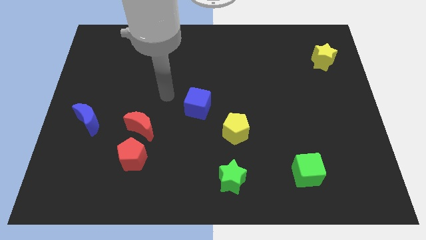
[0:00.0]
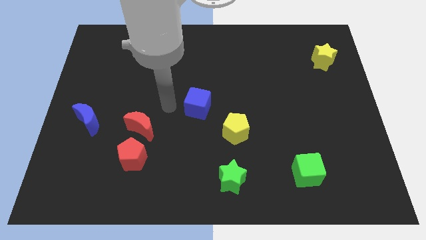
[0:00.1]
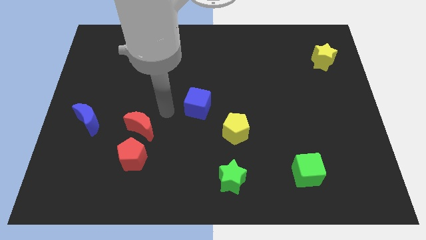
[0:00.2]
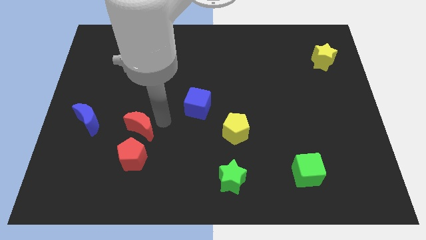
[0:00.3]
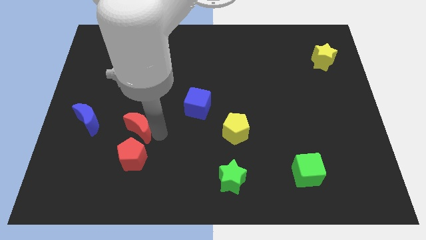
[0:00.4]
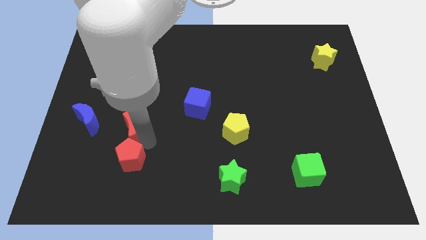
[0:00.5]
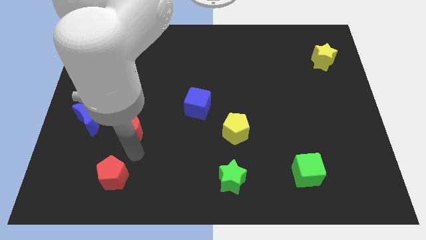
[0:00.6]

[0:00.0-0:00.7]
separate the red moon from the red pentagon

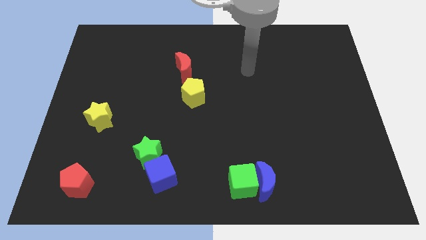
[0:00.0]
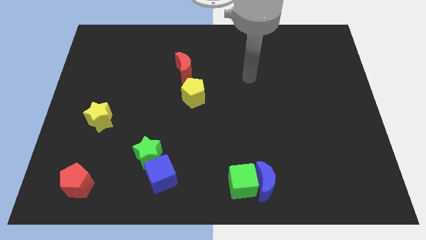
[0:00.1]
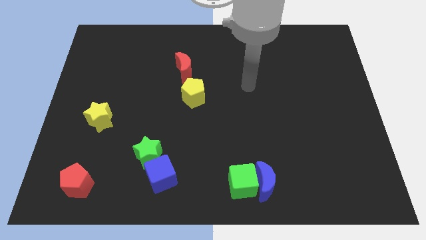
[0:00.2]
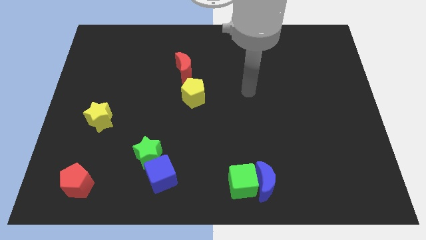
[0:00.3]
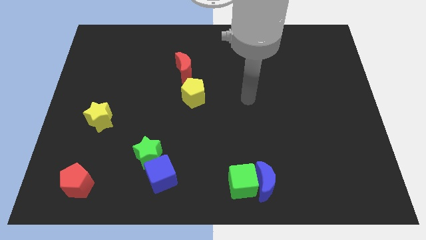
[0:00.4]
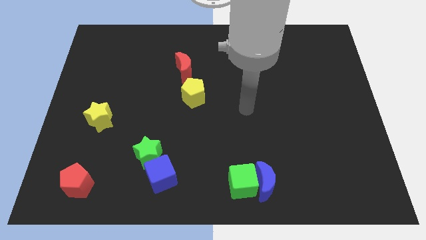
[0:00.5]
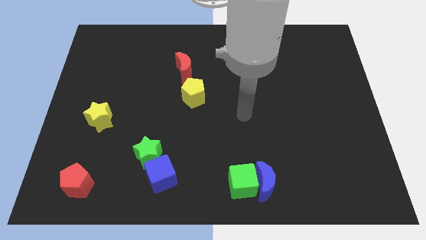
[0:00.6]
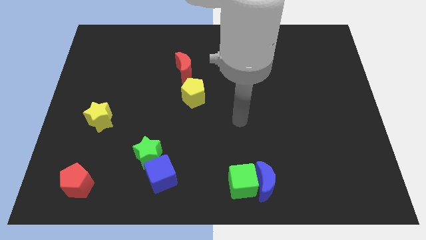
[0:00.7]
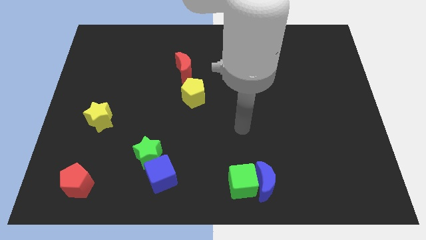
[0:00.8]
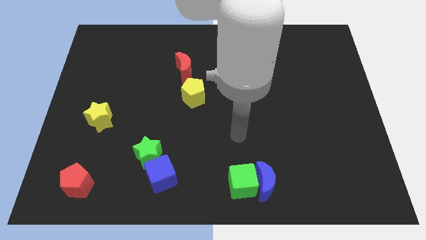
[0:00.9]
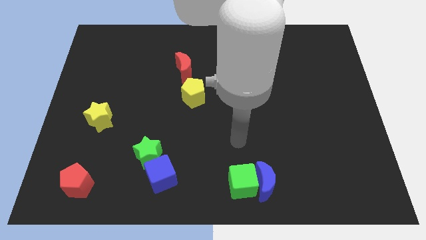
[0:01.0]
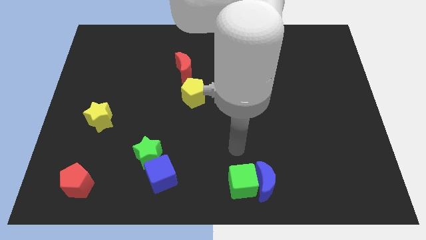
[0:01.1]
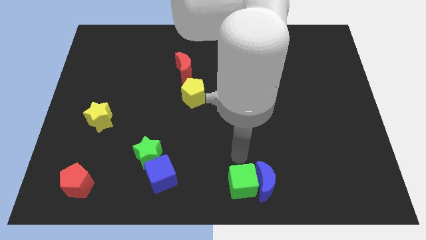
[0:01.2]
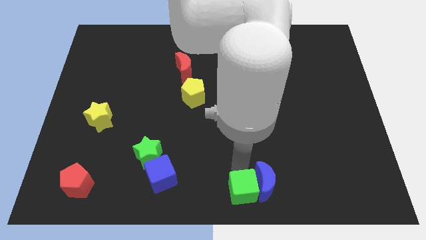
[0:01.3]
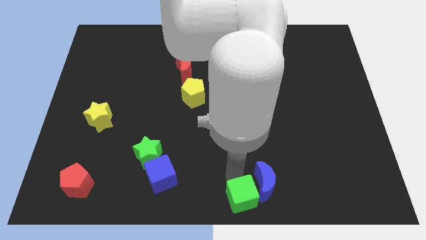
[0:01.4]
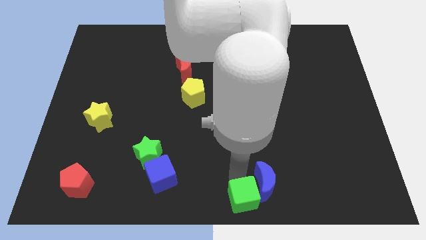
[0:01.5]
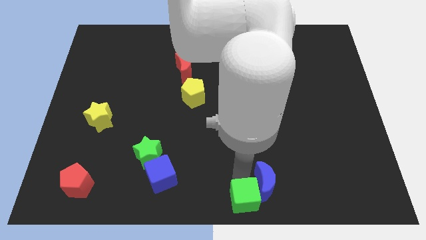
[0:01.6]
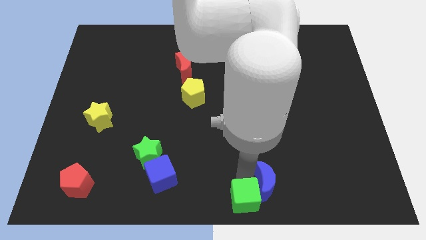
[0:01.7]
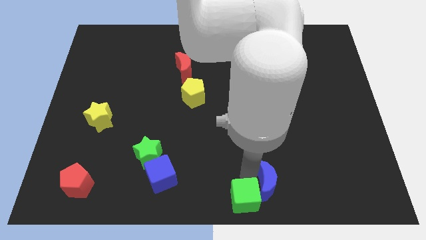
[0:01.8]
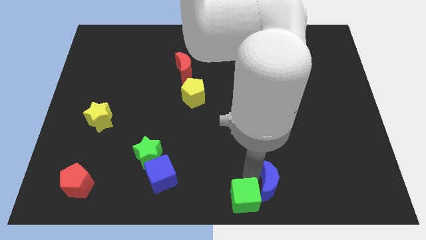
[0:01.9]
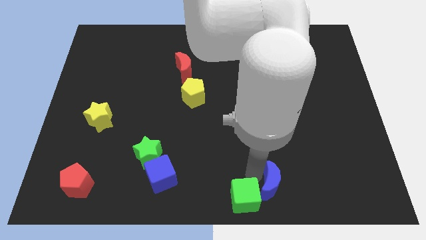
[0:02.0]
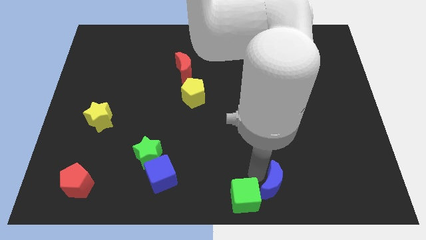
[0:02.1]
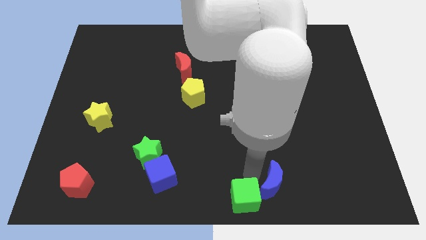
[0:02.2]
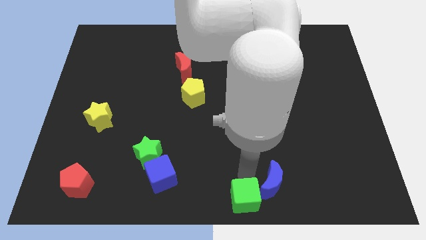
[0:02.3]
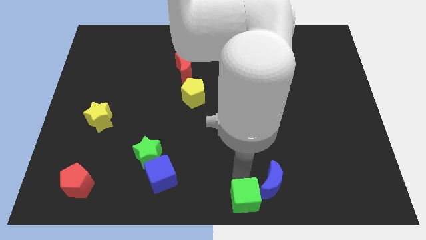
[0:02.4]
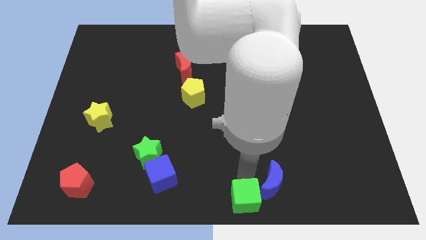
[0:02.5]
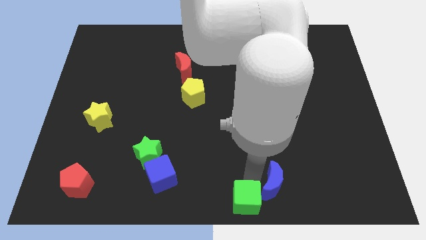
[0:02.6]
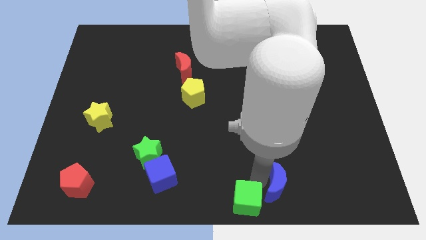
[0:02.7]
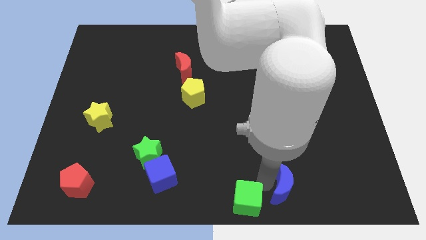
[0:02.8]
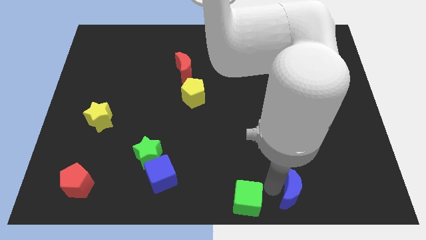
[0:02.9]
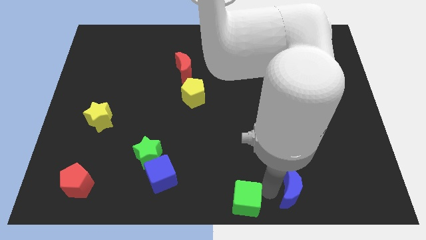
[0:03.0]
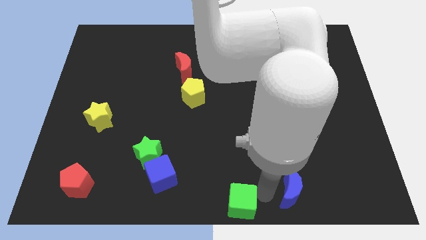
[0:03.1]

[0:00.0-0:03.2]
pull the blue moon apart from the green cube

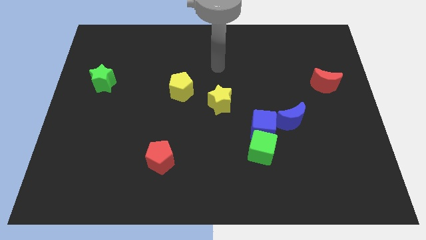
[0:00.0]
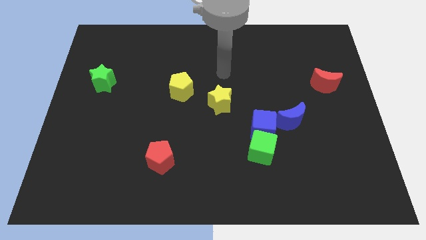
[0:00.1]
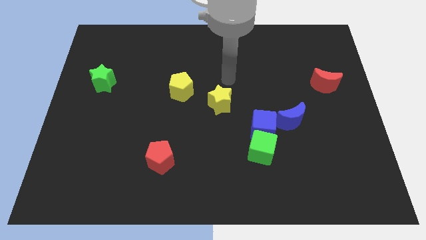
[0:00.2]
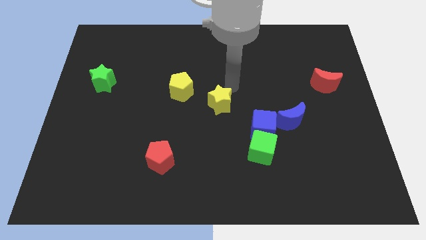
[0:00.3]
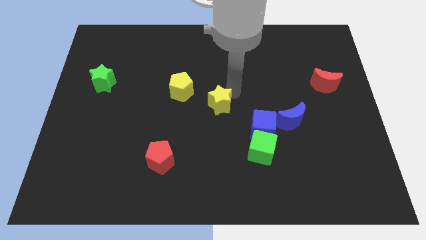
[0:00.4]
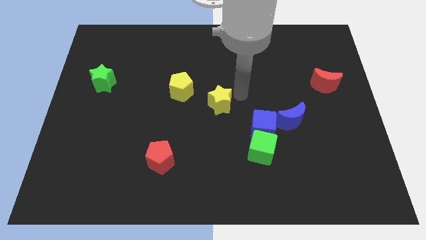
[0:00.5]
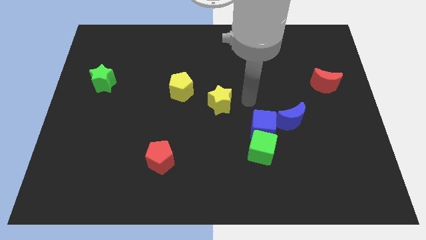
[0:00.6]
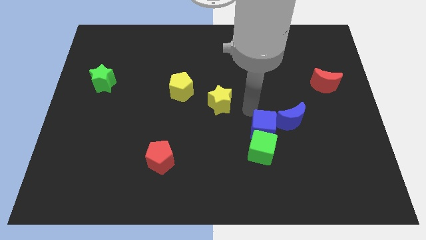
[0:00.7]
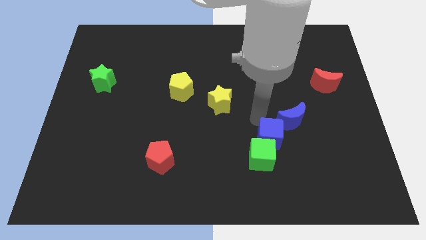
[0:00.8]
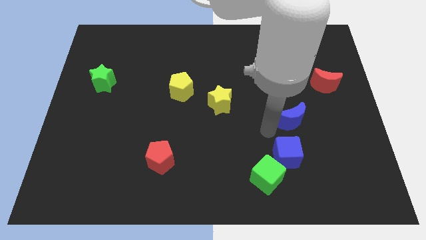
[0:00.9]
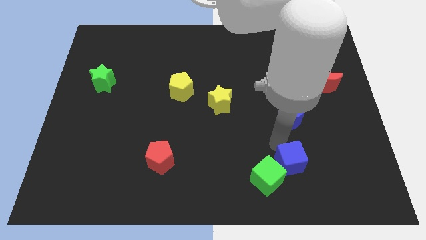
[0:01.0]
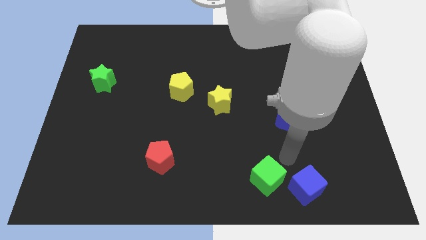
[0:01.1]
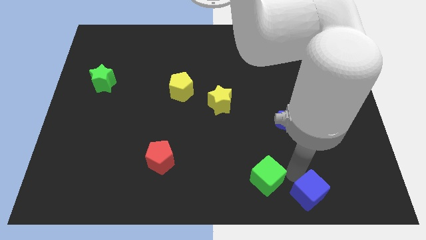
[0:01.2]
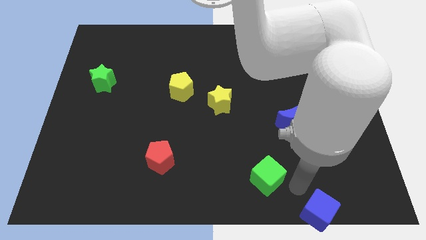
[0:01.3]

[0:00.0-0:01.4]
move the green cube away from the blue cube

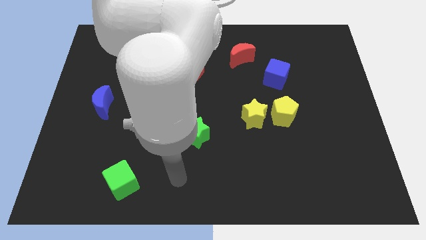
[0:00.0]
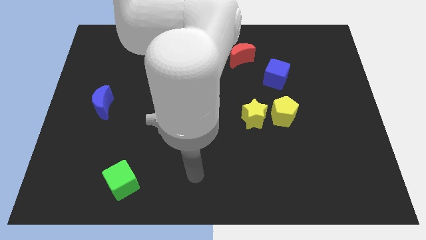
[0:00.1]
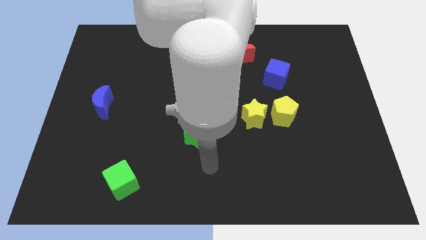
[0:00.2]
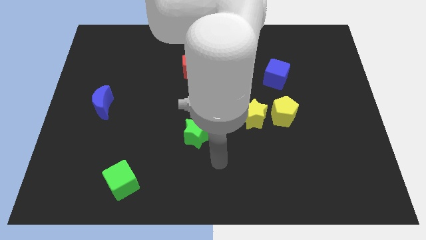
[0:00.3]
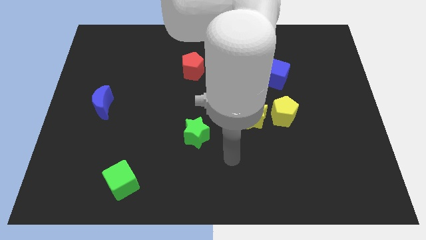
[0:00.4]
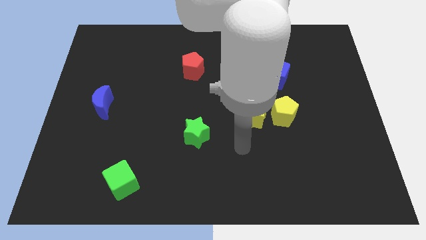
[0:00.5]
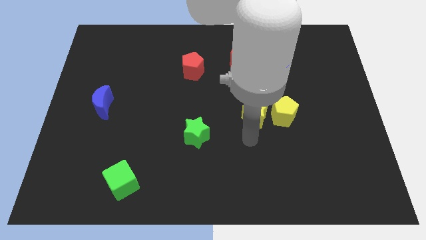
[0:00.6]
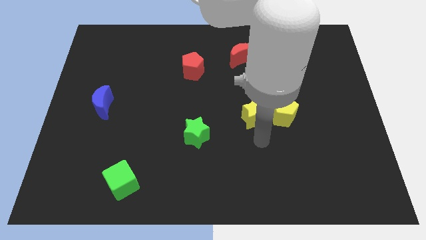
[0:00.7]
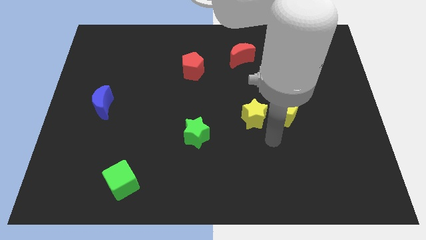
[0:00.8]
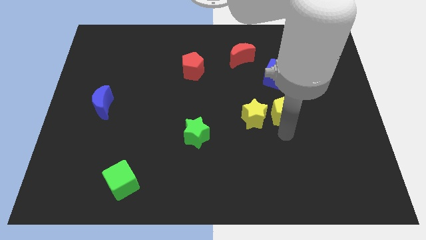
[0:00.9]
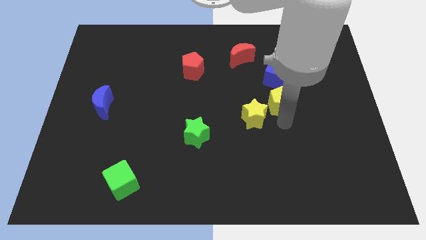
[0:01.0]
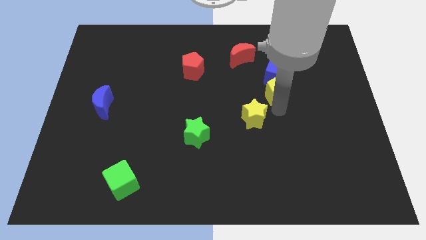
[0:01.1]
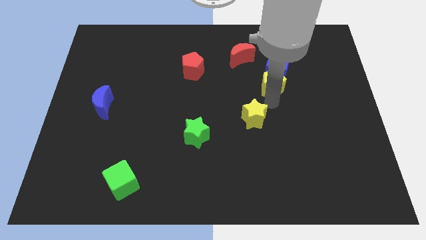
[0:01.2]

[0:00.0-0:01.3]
pull the yellow star apart from the yellow pentagon

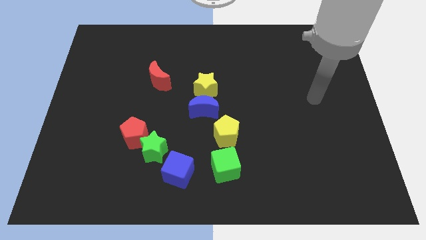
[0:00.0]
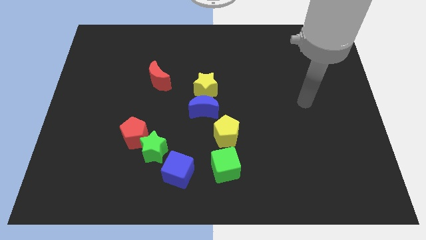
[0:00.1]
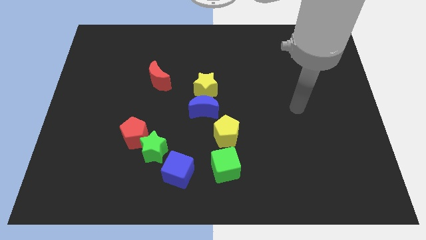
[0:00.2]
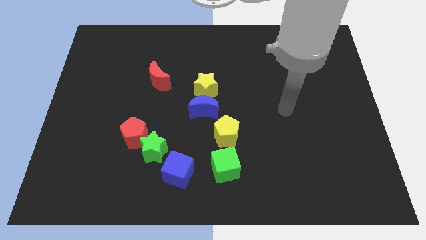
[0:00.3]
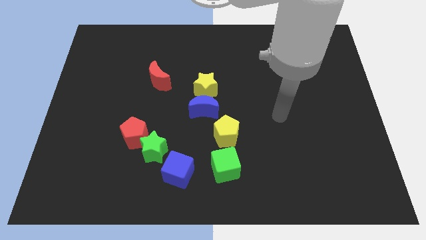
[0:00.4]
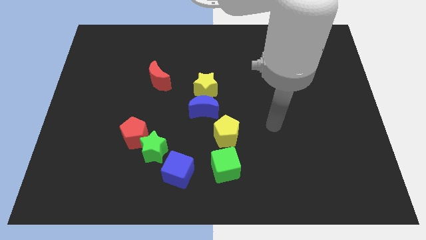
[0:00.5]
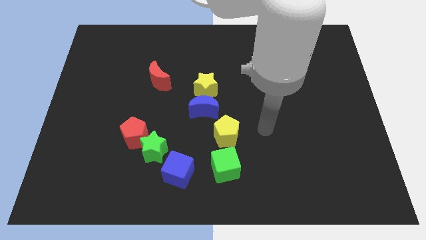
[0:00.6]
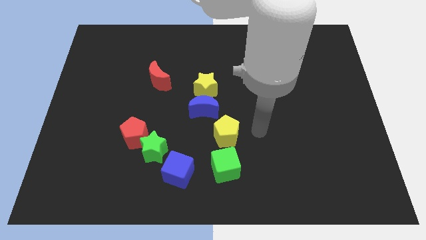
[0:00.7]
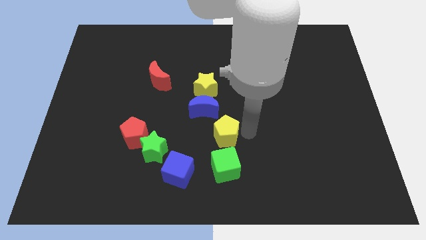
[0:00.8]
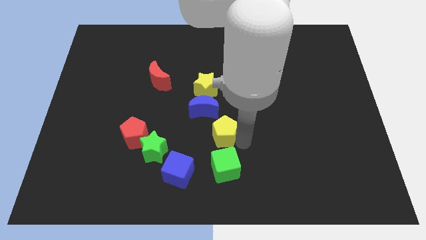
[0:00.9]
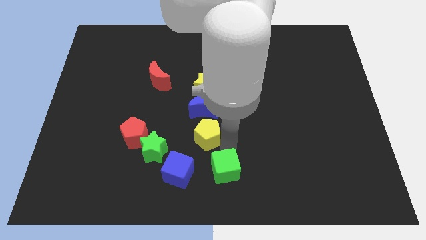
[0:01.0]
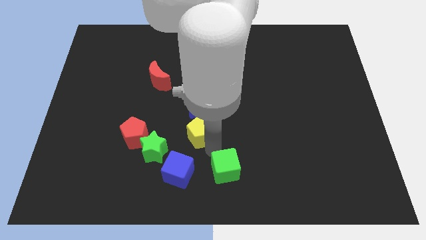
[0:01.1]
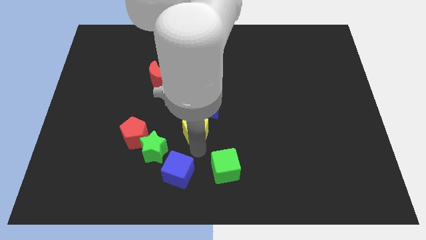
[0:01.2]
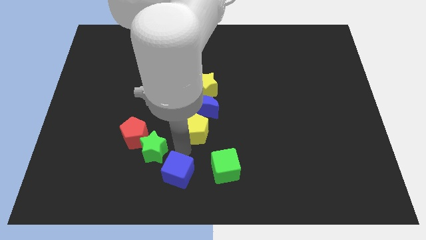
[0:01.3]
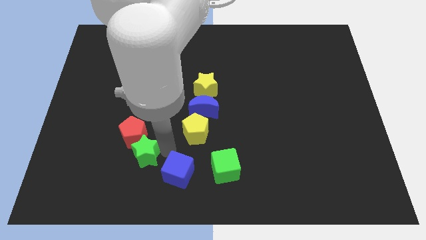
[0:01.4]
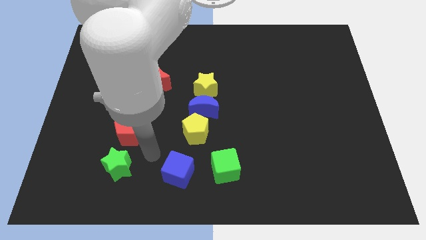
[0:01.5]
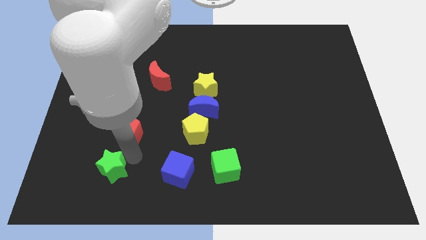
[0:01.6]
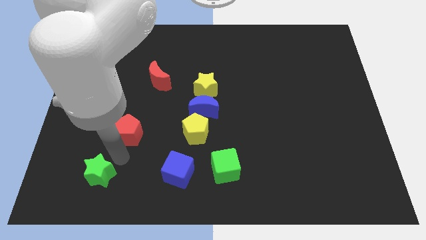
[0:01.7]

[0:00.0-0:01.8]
separate the red pentagon from the green star

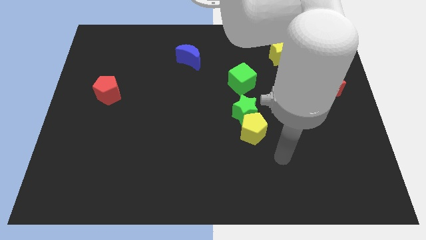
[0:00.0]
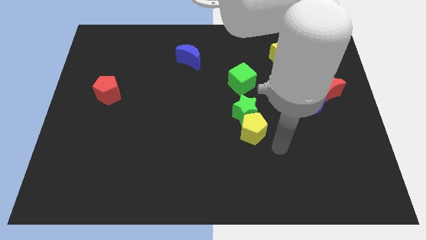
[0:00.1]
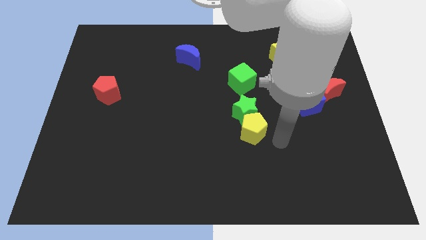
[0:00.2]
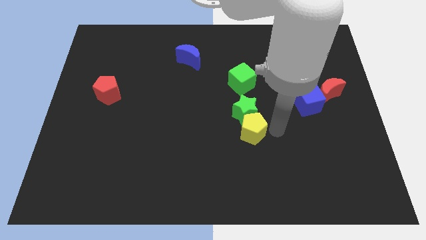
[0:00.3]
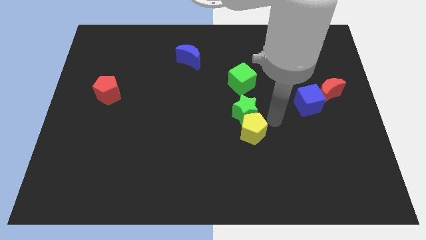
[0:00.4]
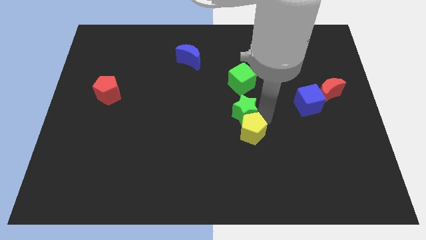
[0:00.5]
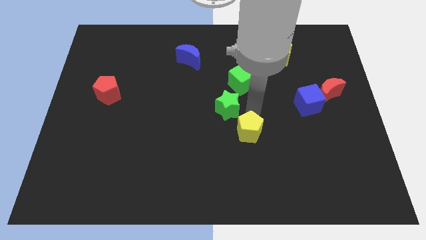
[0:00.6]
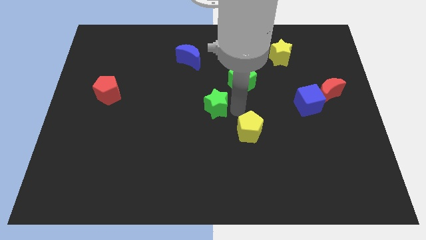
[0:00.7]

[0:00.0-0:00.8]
move the yellow pentagon away from the green star
